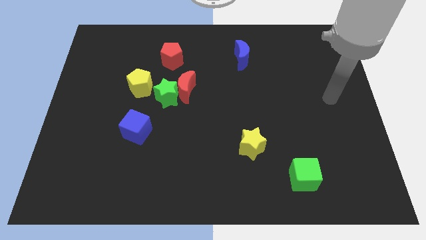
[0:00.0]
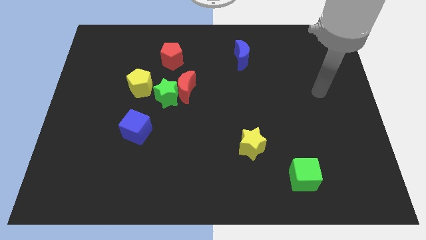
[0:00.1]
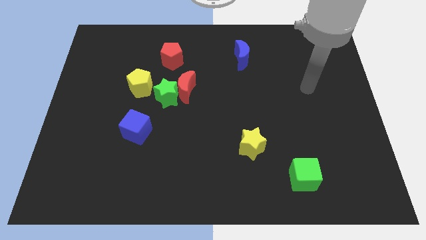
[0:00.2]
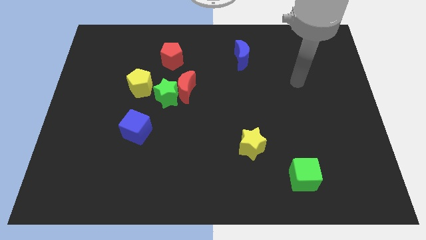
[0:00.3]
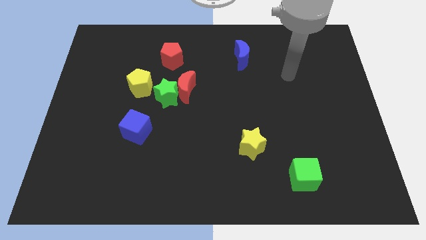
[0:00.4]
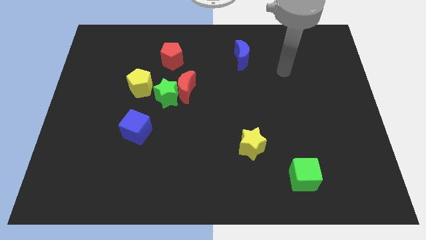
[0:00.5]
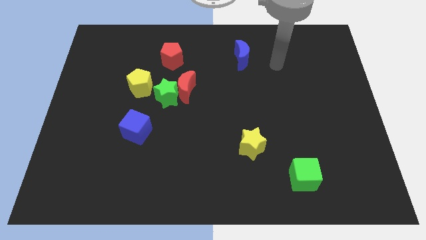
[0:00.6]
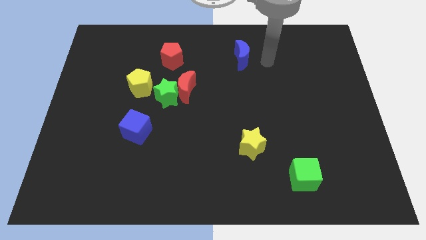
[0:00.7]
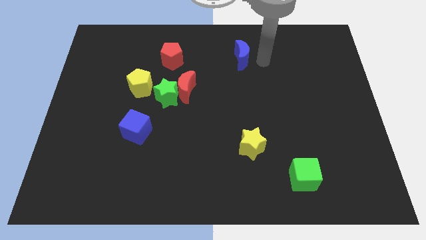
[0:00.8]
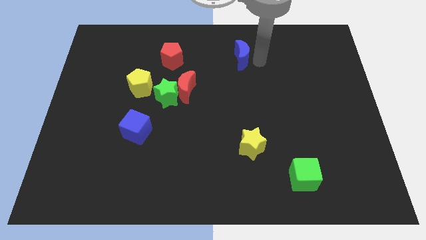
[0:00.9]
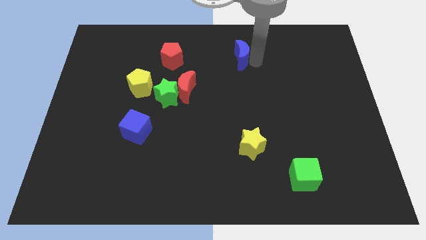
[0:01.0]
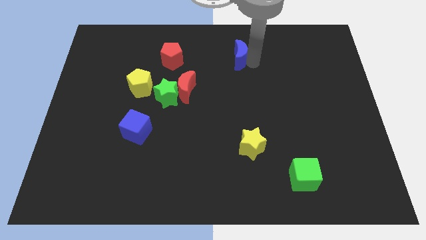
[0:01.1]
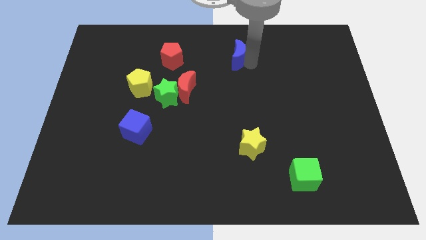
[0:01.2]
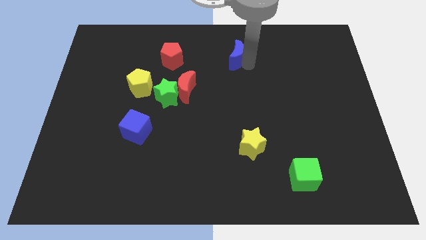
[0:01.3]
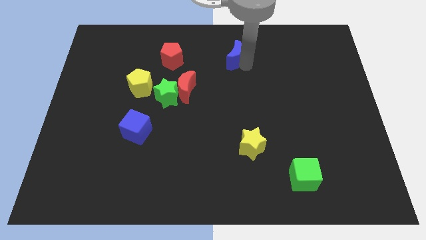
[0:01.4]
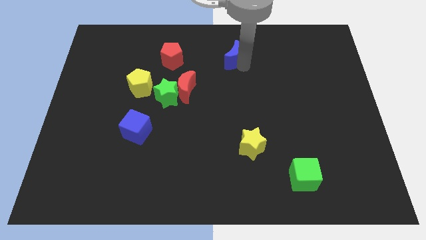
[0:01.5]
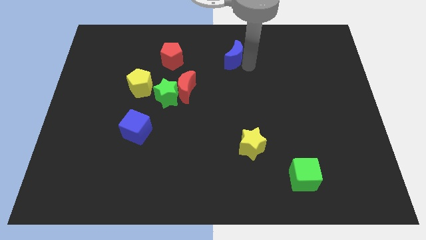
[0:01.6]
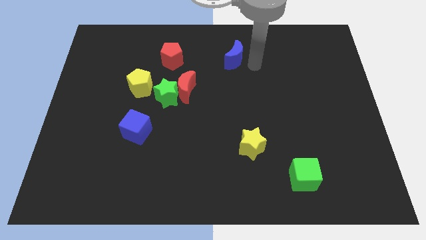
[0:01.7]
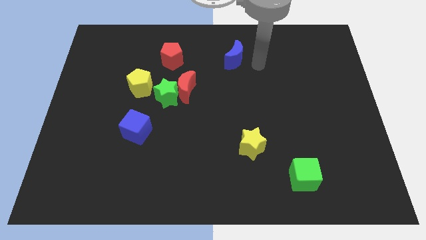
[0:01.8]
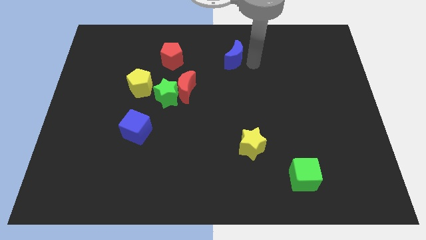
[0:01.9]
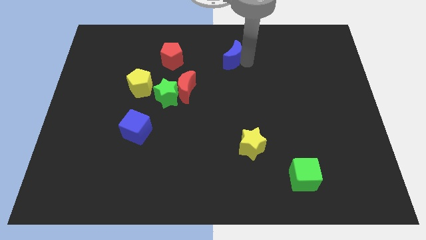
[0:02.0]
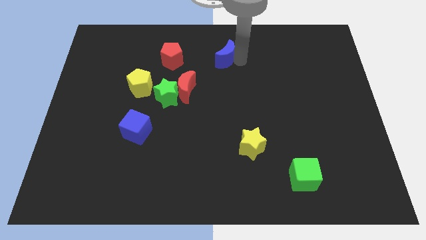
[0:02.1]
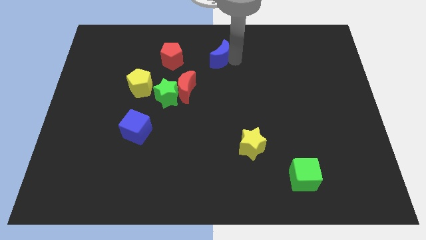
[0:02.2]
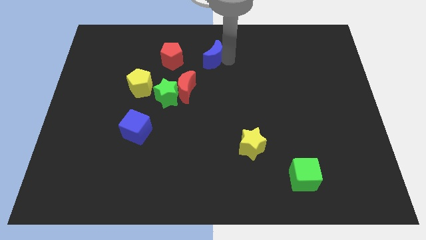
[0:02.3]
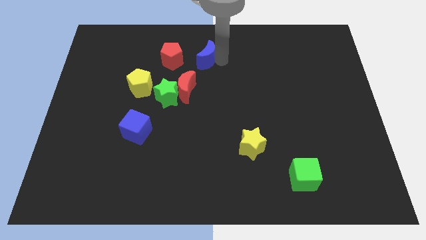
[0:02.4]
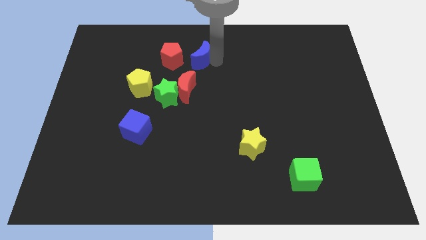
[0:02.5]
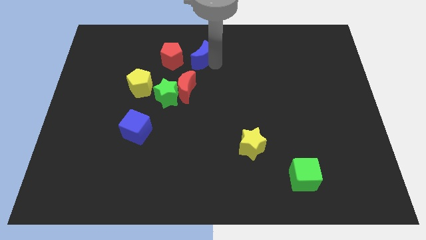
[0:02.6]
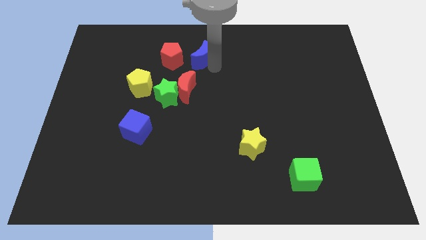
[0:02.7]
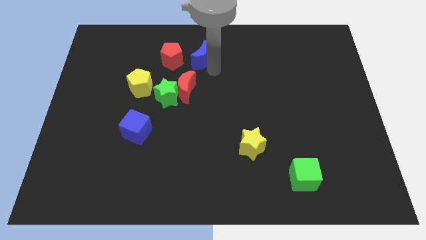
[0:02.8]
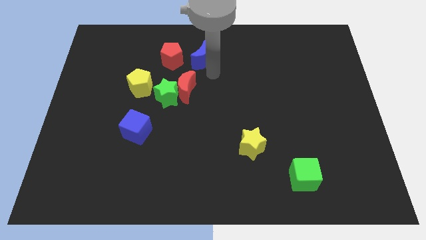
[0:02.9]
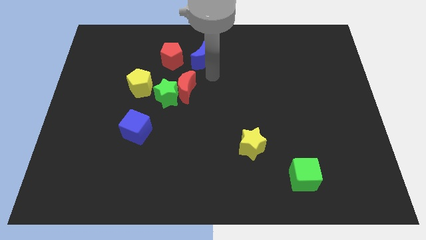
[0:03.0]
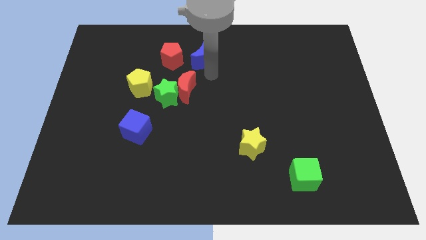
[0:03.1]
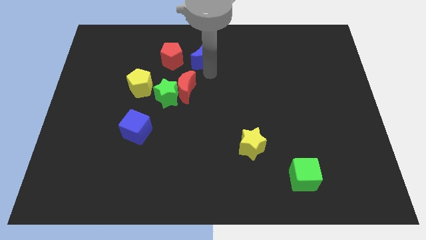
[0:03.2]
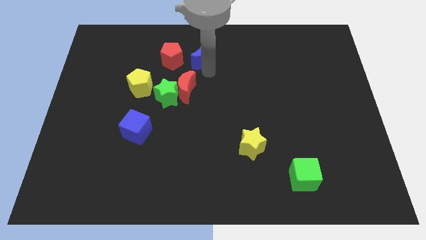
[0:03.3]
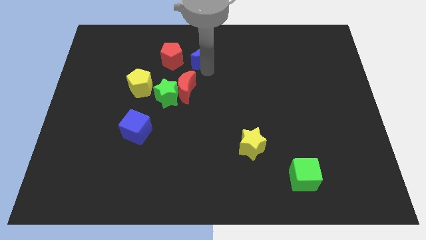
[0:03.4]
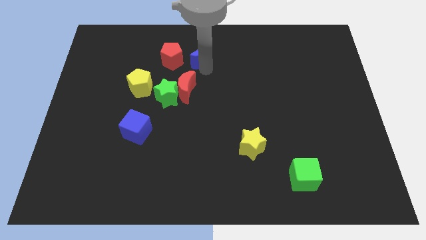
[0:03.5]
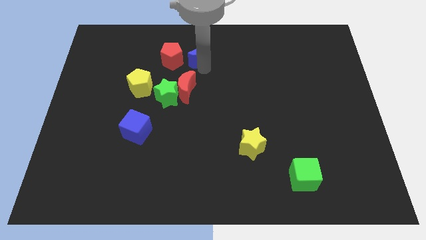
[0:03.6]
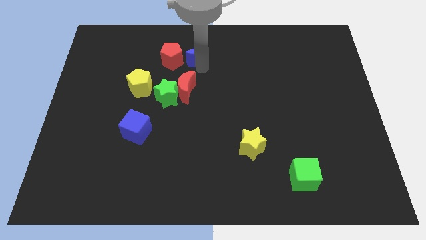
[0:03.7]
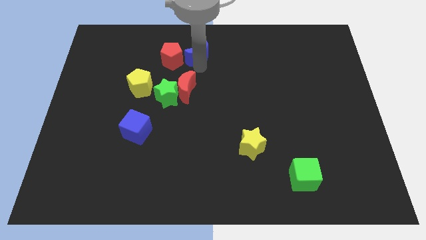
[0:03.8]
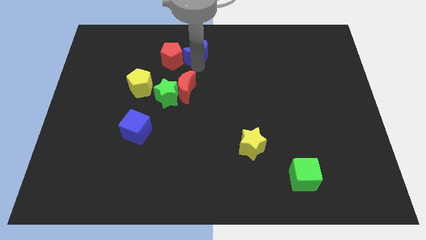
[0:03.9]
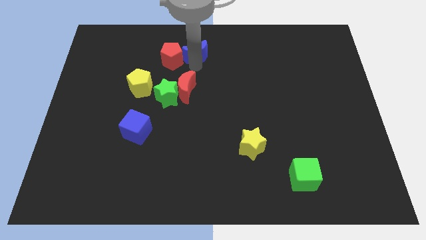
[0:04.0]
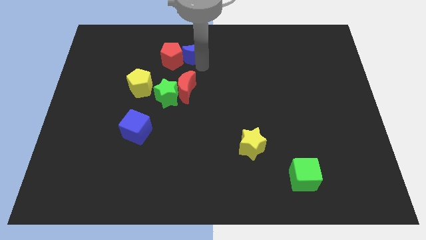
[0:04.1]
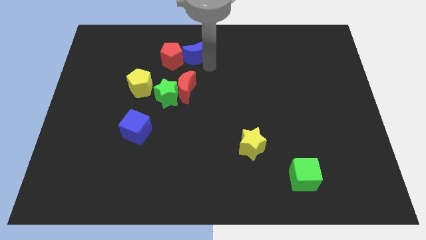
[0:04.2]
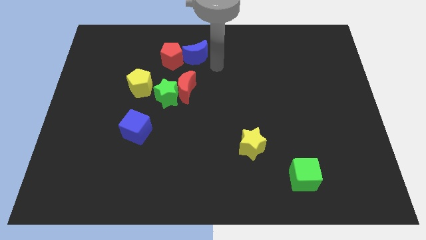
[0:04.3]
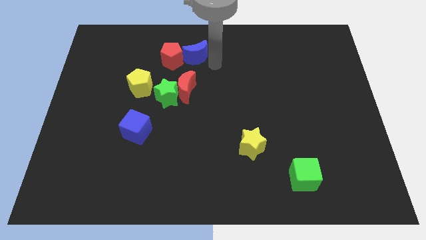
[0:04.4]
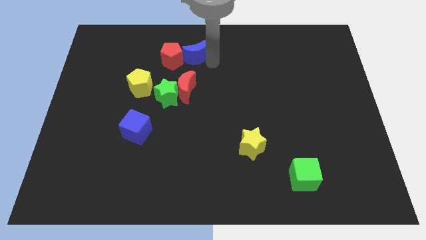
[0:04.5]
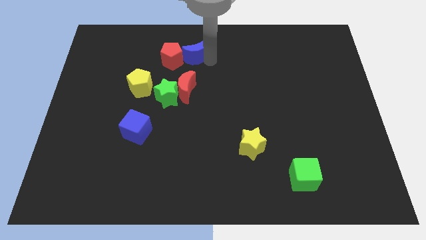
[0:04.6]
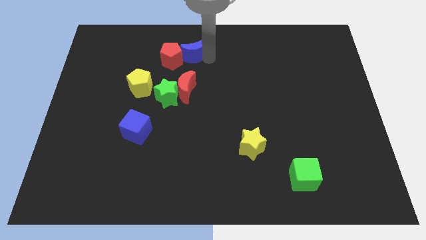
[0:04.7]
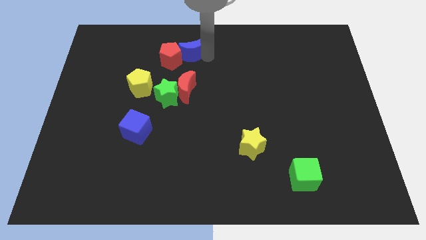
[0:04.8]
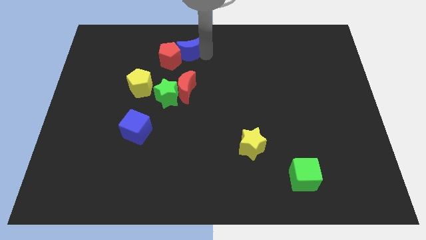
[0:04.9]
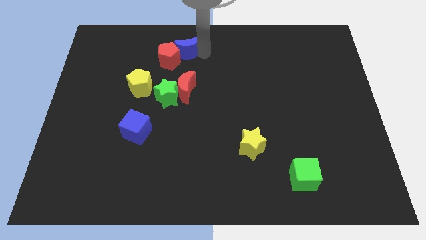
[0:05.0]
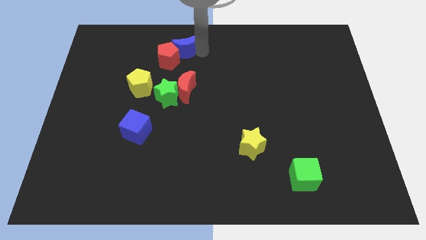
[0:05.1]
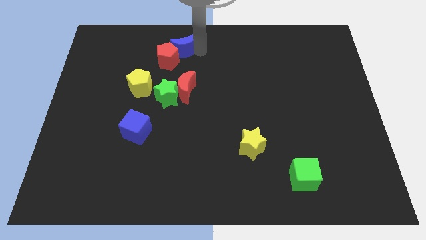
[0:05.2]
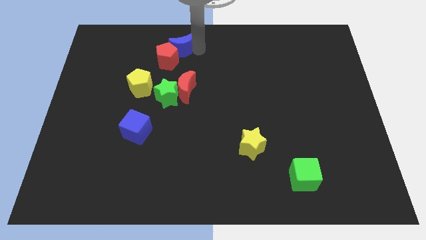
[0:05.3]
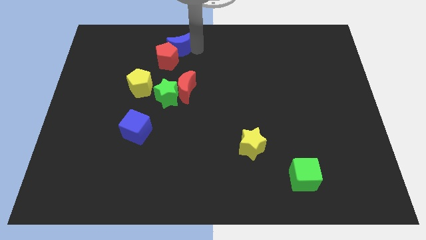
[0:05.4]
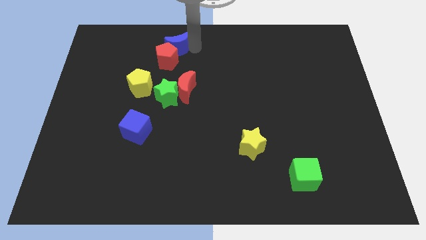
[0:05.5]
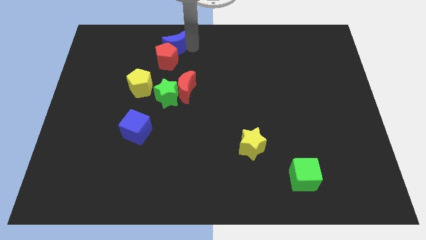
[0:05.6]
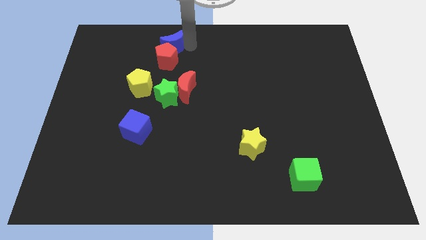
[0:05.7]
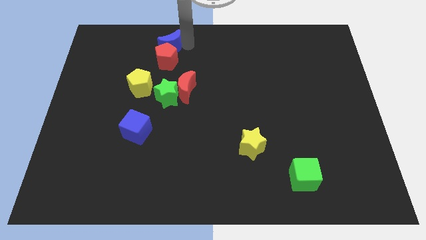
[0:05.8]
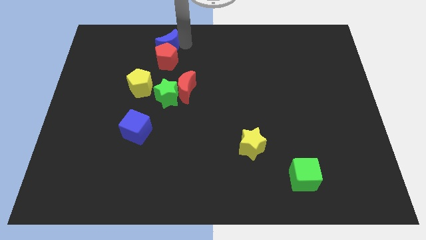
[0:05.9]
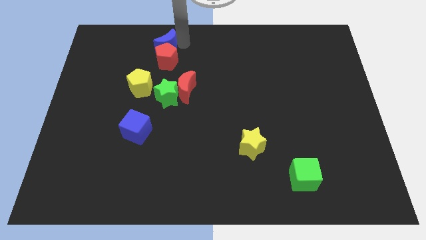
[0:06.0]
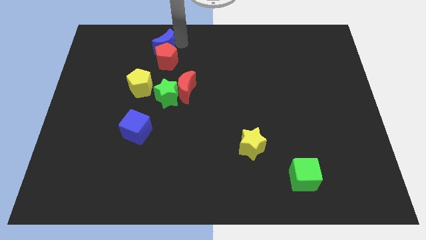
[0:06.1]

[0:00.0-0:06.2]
slide the blue moon left

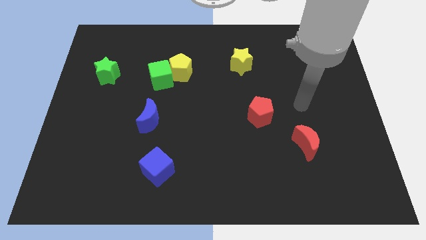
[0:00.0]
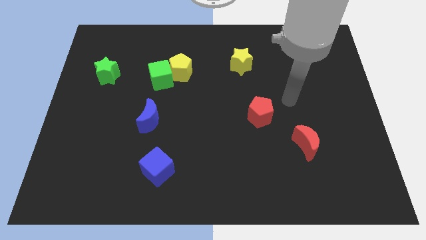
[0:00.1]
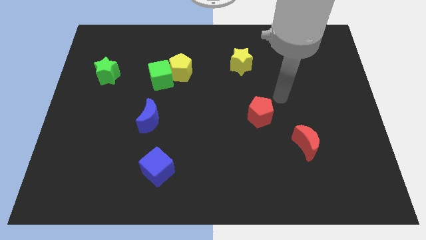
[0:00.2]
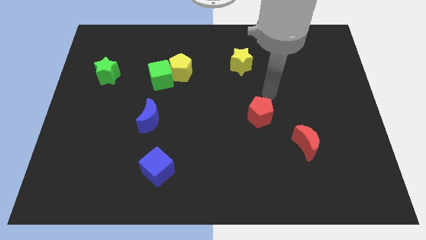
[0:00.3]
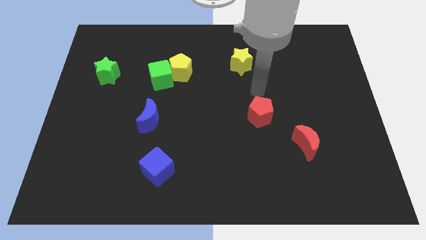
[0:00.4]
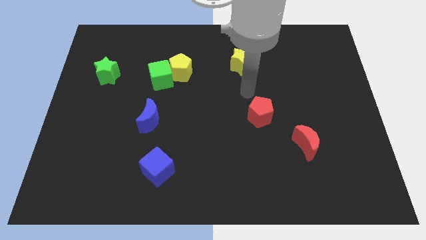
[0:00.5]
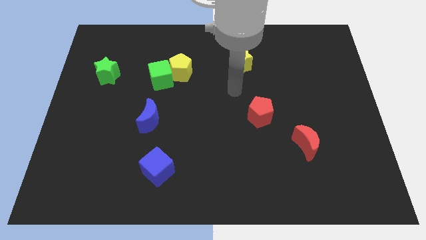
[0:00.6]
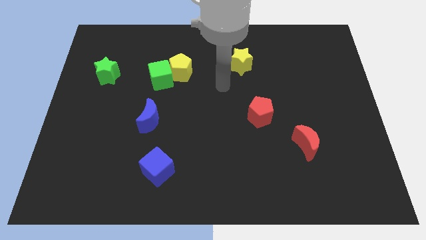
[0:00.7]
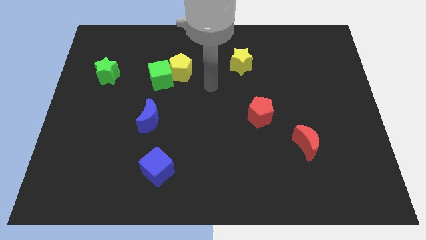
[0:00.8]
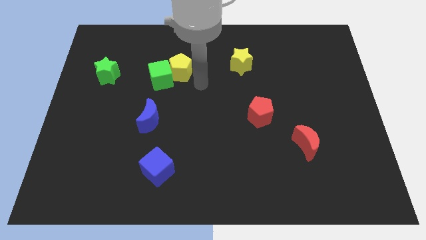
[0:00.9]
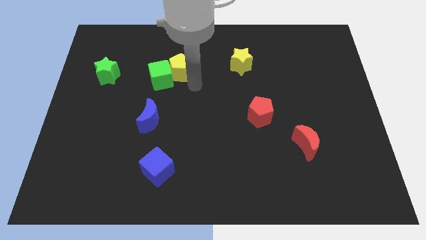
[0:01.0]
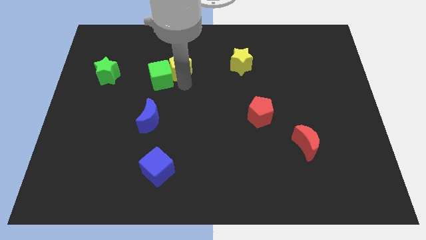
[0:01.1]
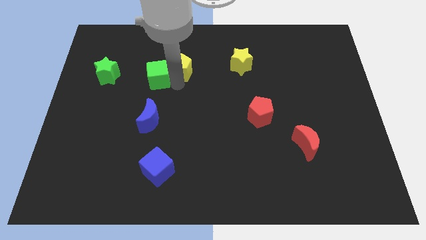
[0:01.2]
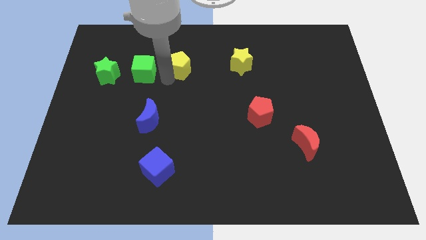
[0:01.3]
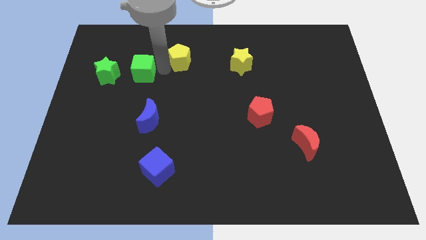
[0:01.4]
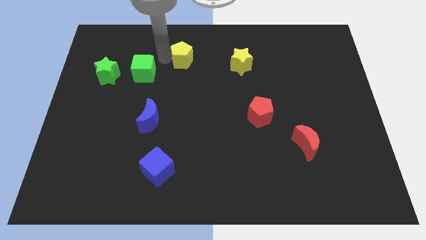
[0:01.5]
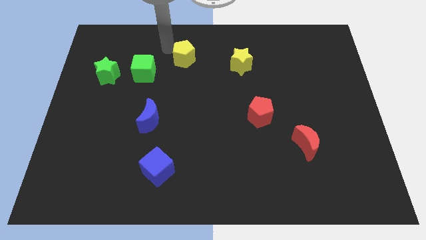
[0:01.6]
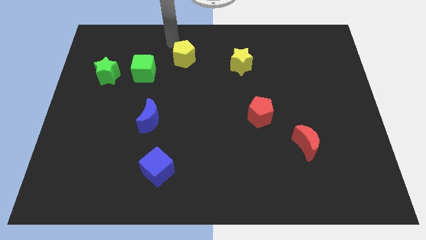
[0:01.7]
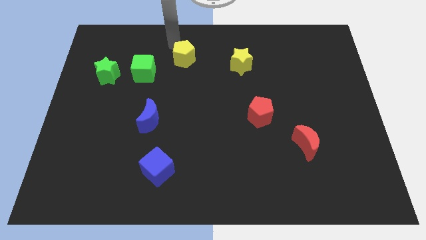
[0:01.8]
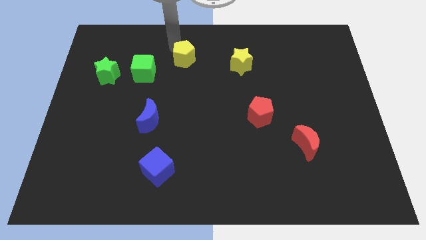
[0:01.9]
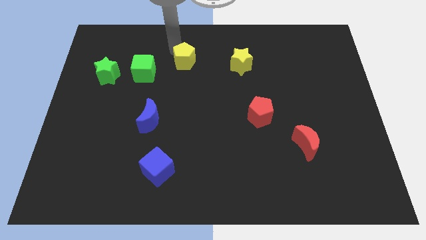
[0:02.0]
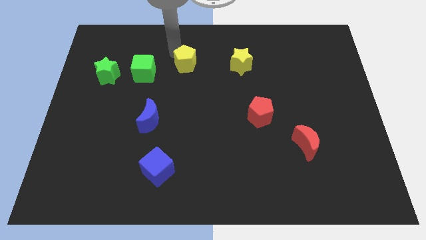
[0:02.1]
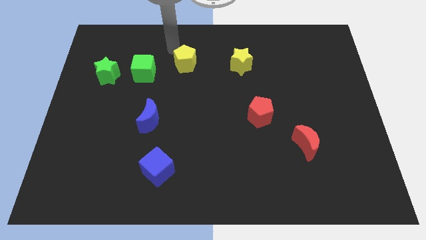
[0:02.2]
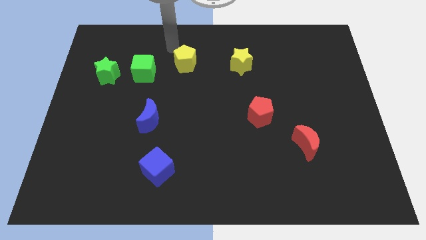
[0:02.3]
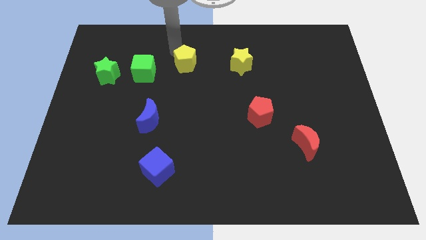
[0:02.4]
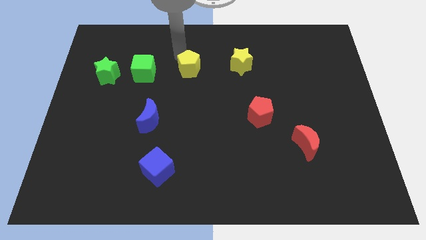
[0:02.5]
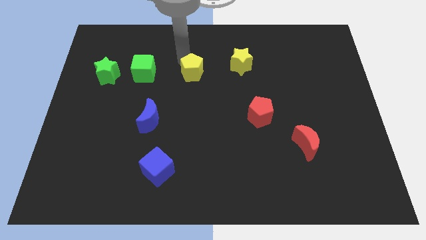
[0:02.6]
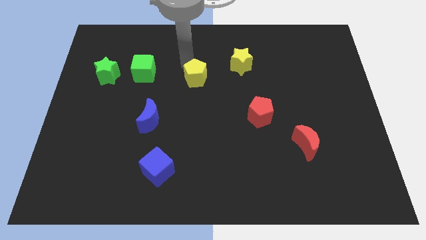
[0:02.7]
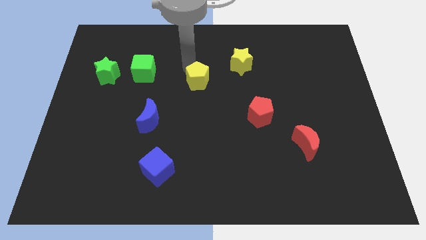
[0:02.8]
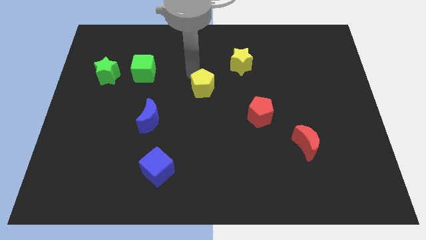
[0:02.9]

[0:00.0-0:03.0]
slide the yellow pentagon down and to the right diagonally a little
